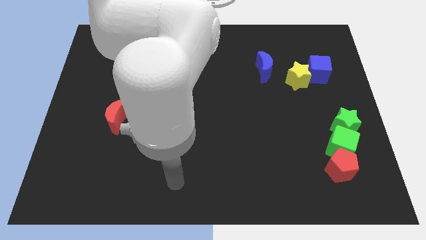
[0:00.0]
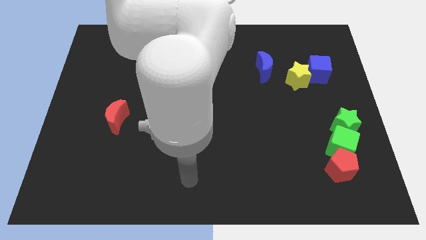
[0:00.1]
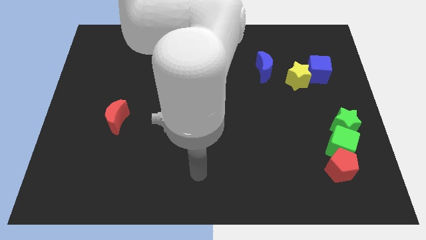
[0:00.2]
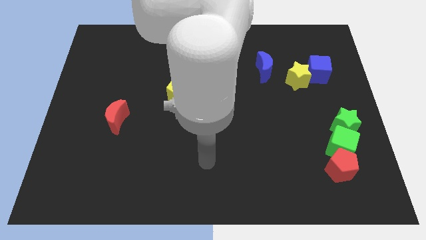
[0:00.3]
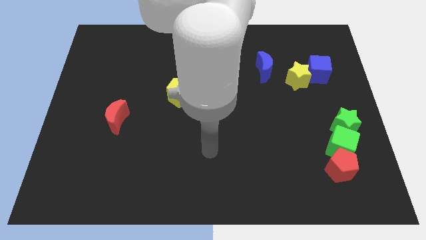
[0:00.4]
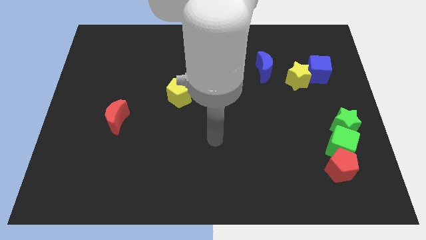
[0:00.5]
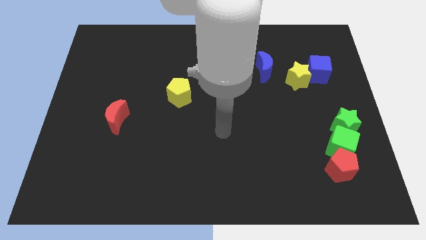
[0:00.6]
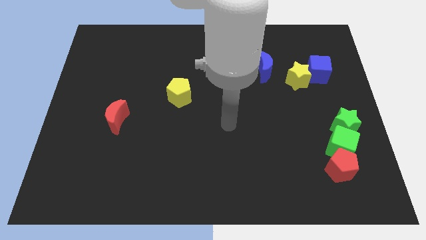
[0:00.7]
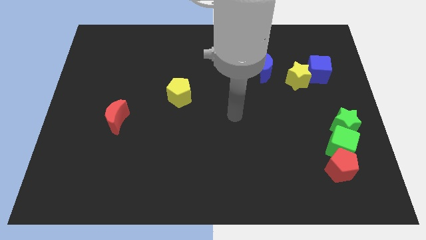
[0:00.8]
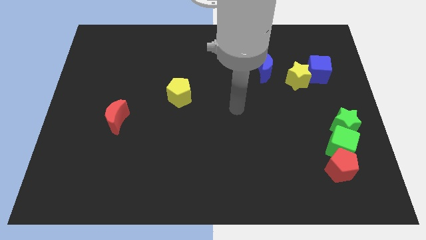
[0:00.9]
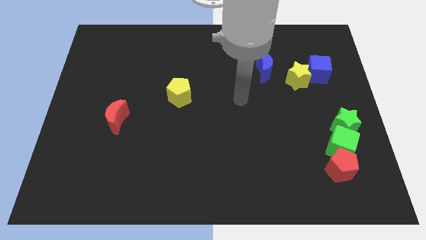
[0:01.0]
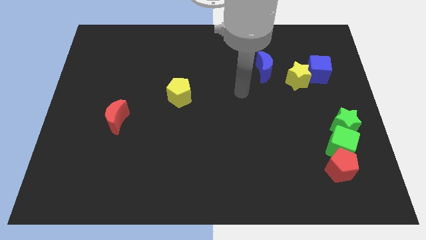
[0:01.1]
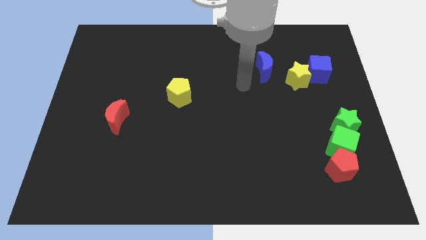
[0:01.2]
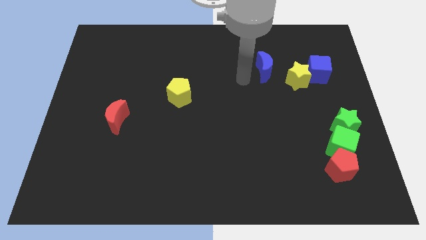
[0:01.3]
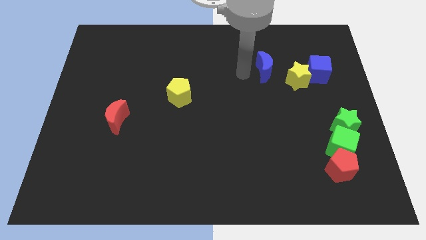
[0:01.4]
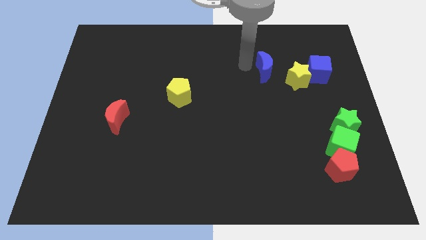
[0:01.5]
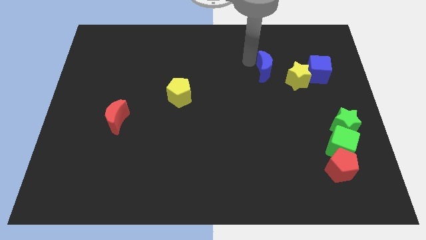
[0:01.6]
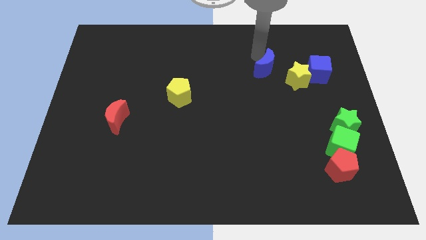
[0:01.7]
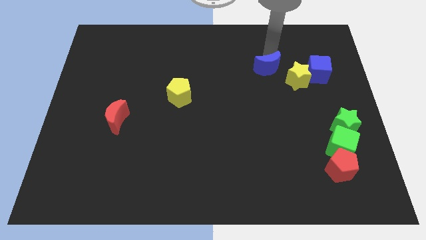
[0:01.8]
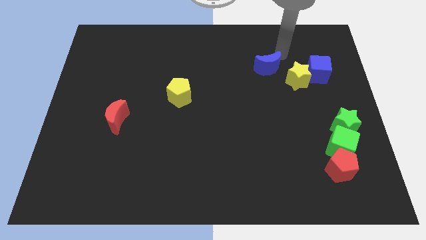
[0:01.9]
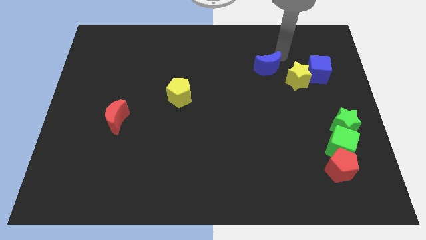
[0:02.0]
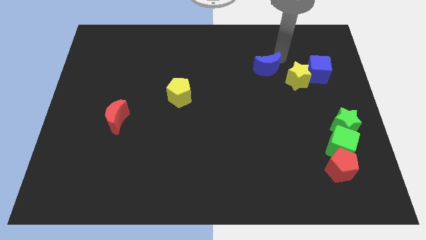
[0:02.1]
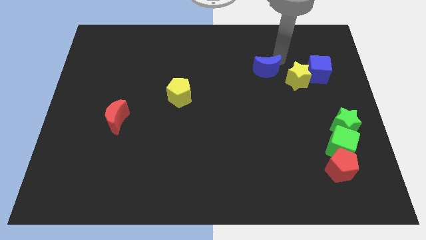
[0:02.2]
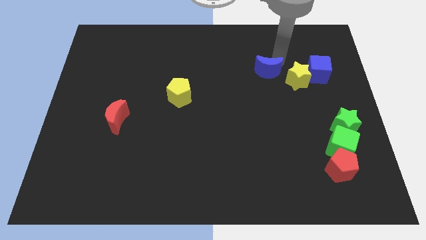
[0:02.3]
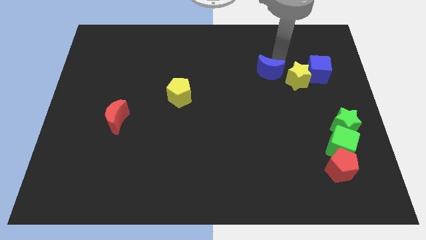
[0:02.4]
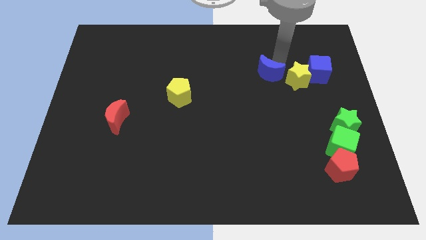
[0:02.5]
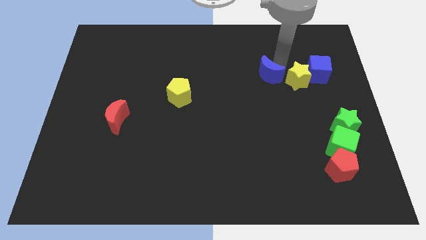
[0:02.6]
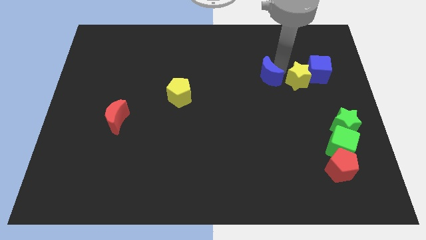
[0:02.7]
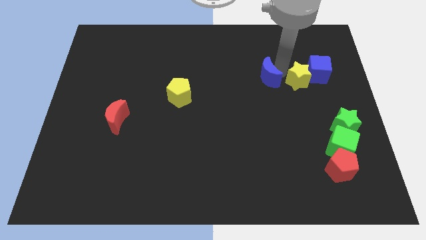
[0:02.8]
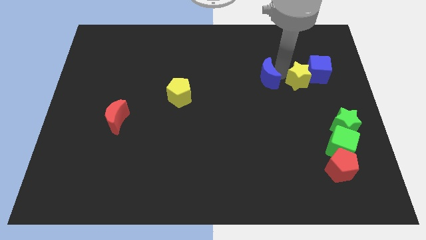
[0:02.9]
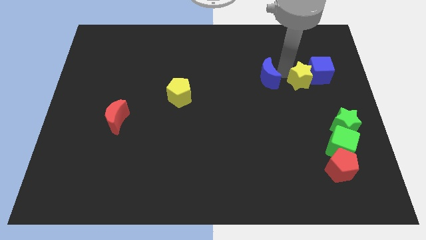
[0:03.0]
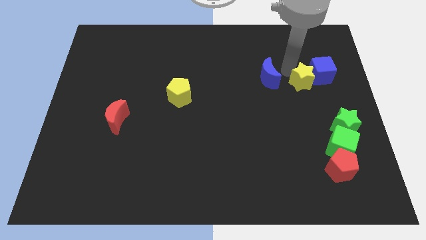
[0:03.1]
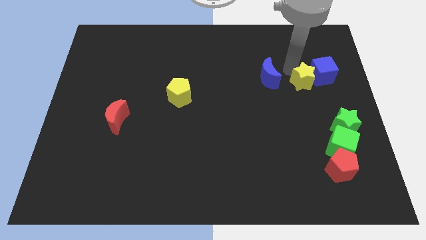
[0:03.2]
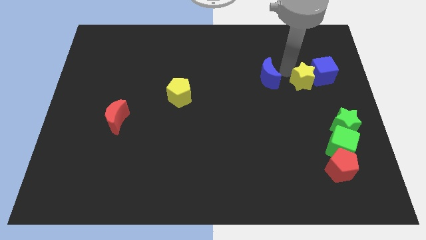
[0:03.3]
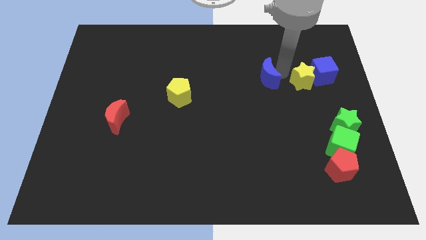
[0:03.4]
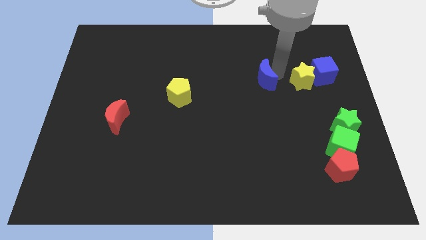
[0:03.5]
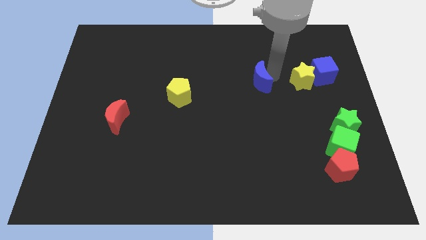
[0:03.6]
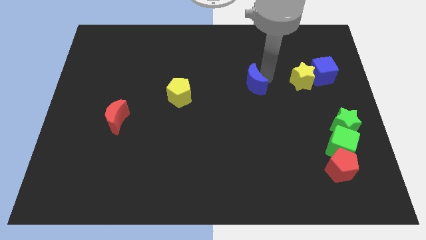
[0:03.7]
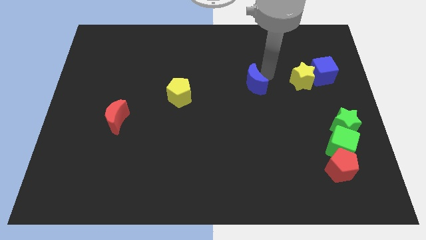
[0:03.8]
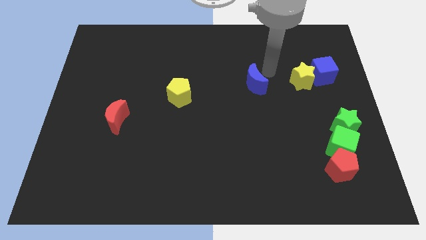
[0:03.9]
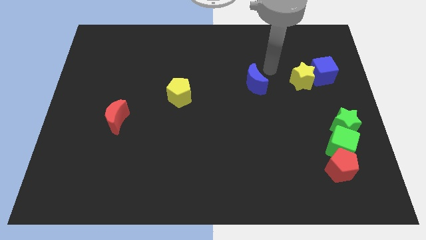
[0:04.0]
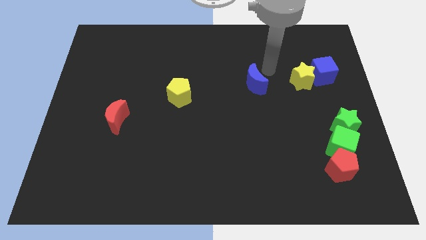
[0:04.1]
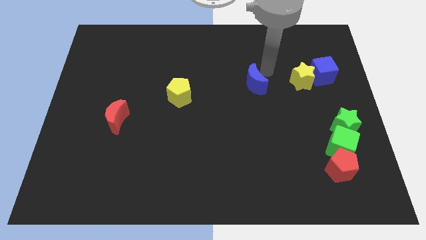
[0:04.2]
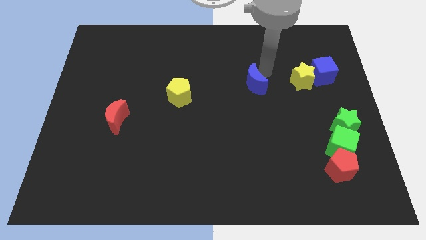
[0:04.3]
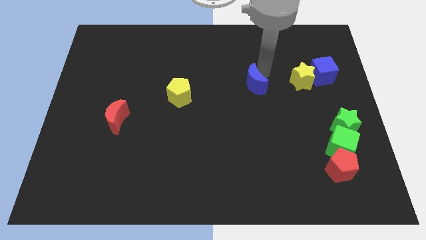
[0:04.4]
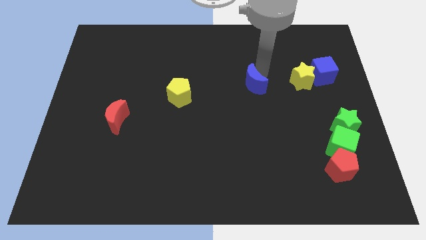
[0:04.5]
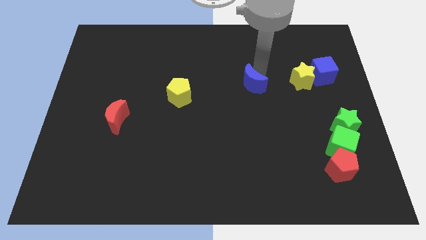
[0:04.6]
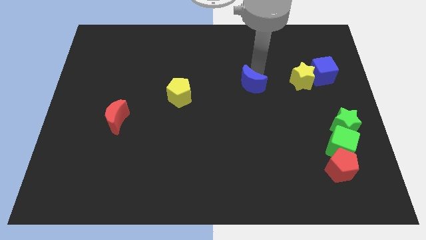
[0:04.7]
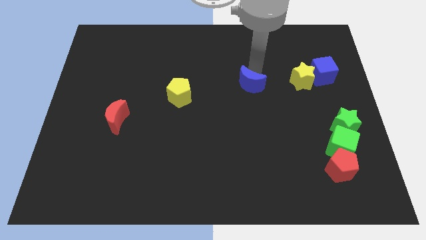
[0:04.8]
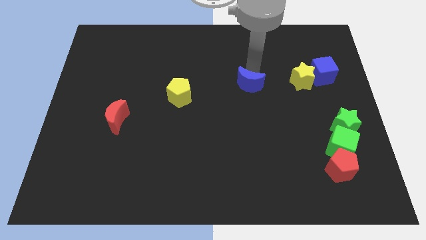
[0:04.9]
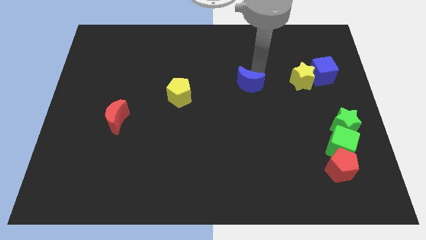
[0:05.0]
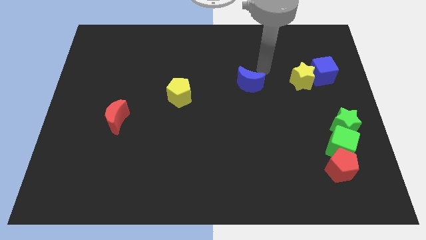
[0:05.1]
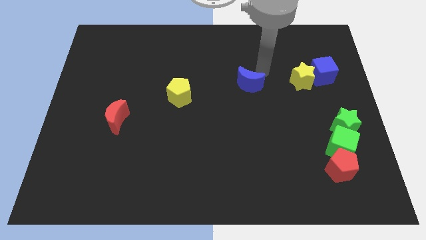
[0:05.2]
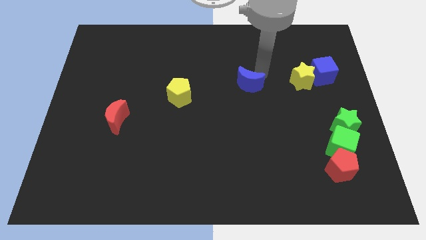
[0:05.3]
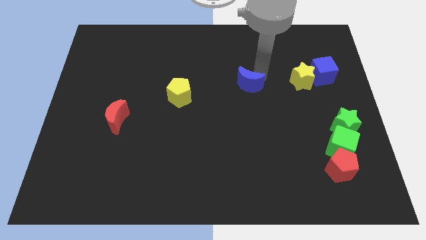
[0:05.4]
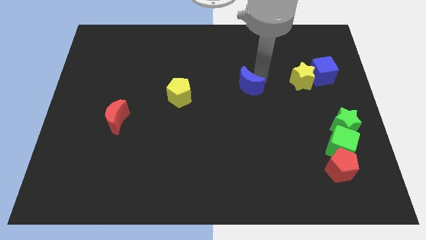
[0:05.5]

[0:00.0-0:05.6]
push the blue moon slightly diagonally down and left

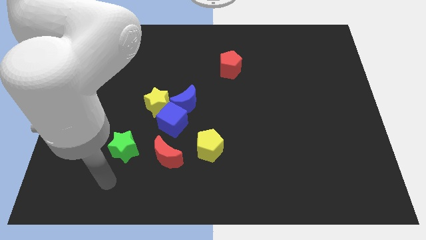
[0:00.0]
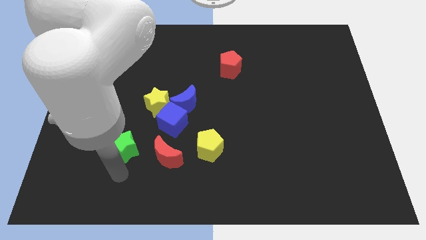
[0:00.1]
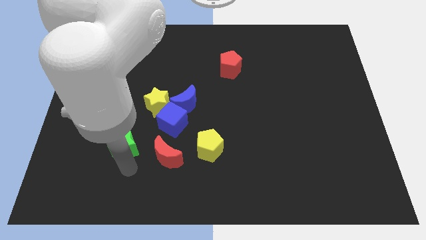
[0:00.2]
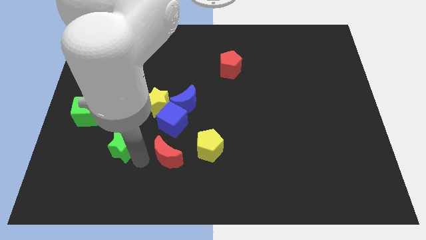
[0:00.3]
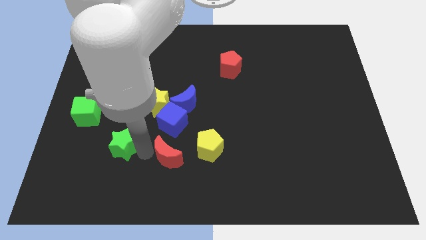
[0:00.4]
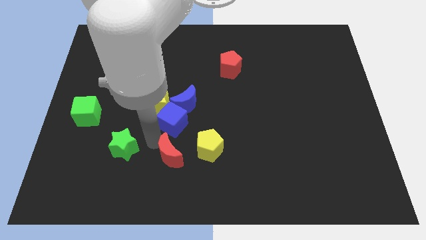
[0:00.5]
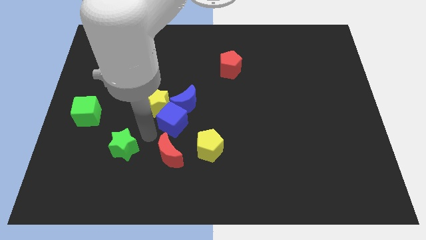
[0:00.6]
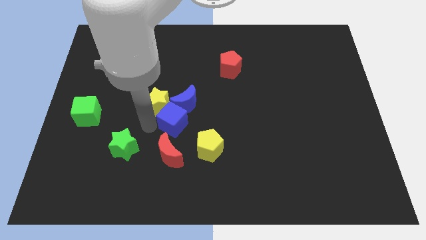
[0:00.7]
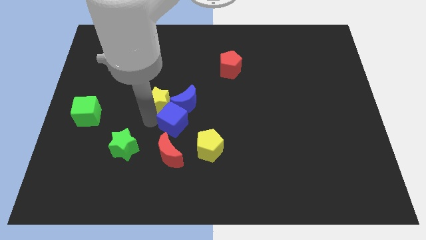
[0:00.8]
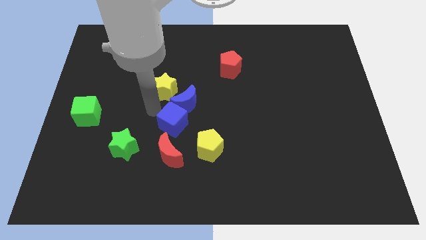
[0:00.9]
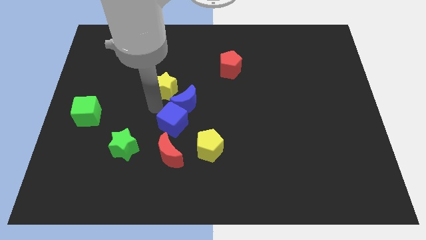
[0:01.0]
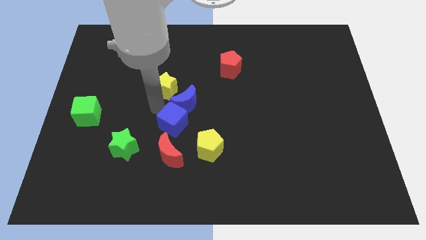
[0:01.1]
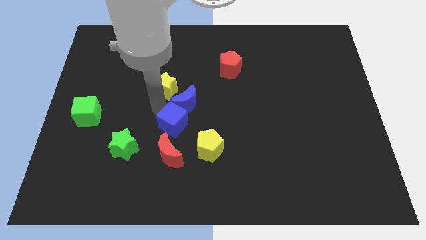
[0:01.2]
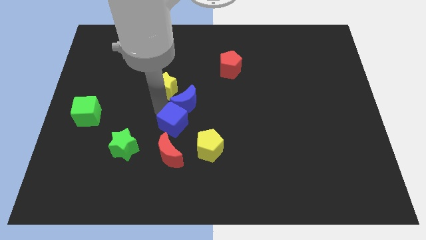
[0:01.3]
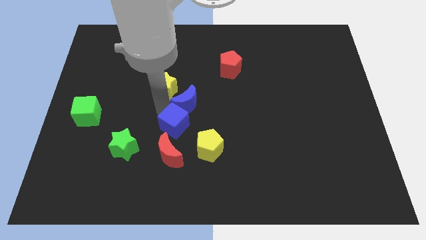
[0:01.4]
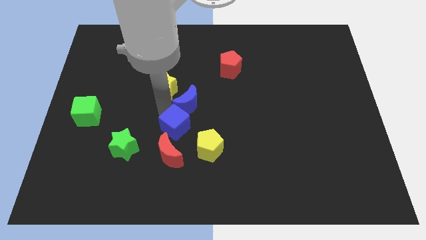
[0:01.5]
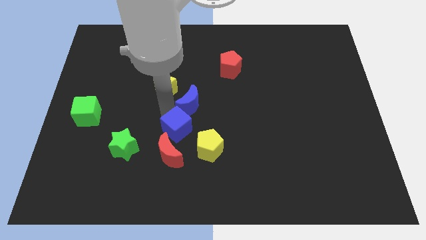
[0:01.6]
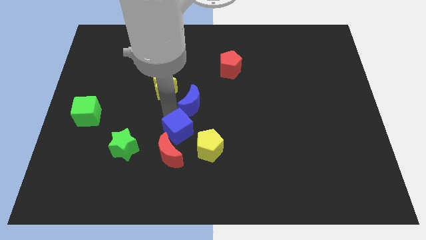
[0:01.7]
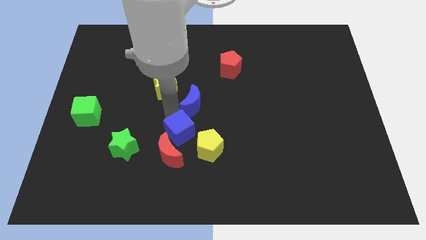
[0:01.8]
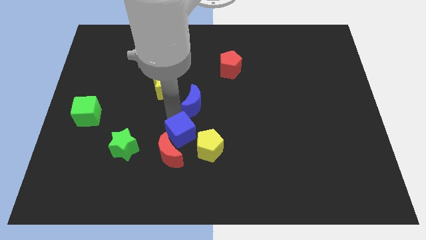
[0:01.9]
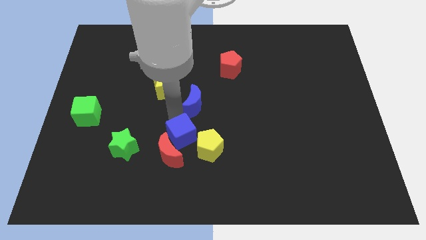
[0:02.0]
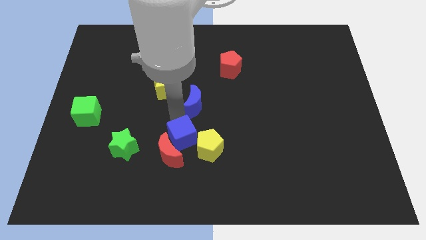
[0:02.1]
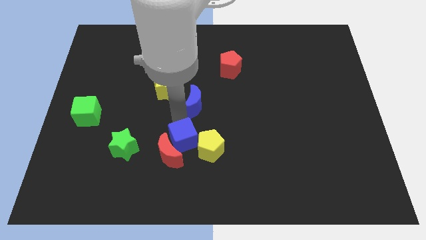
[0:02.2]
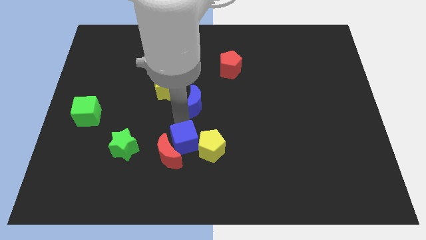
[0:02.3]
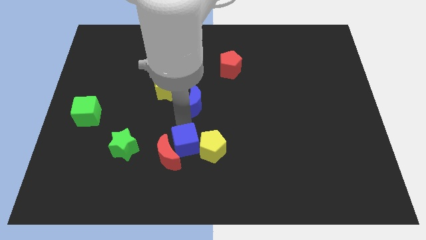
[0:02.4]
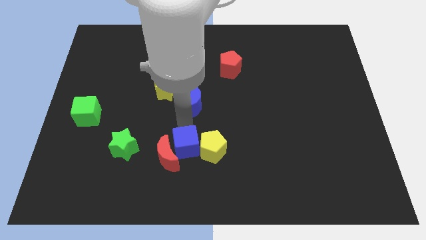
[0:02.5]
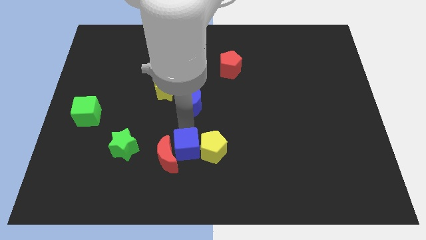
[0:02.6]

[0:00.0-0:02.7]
slide the blue cube down and then to the right a little bit
